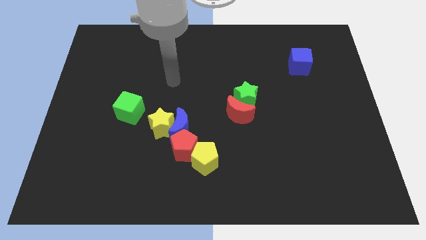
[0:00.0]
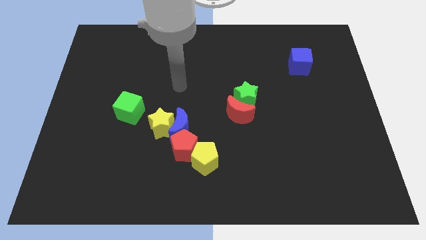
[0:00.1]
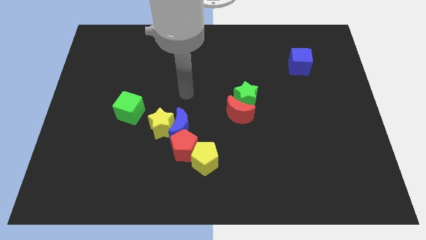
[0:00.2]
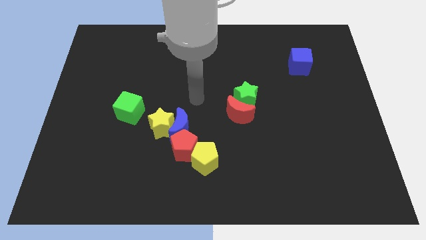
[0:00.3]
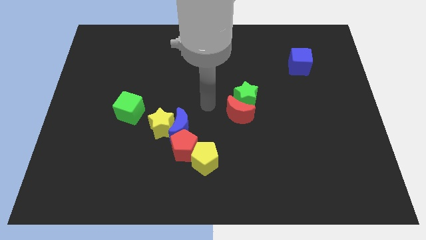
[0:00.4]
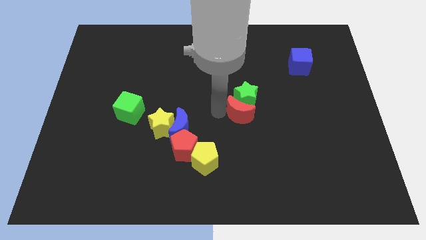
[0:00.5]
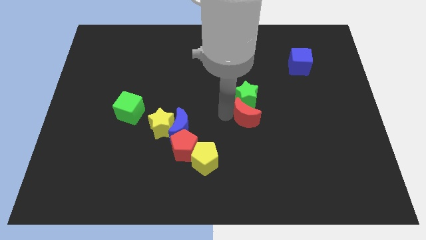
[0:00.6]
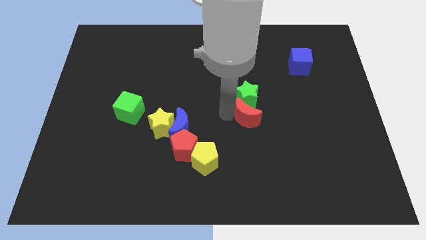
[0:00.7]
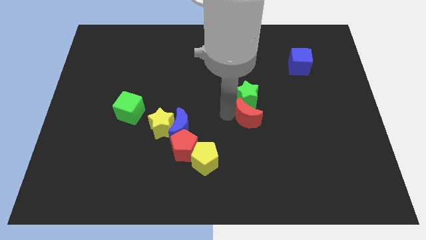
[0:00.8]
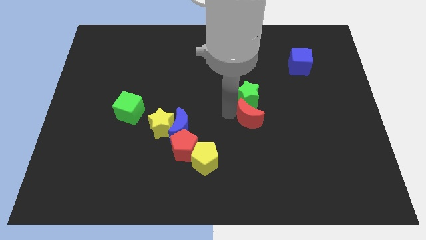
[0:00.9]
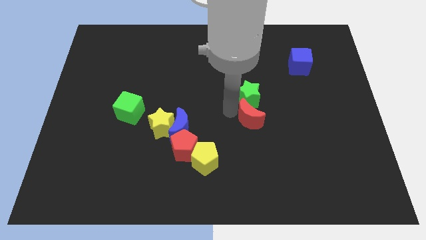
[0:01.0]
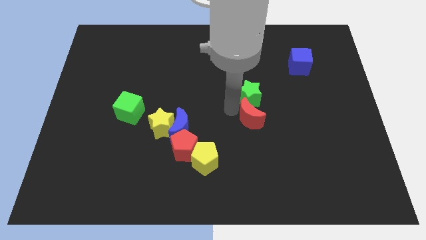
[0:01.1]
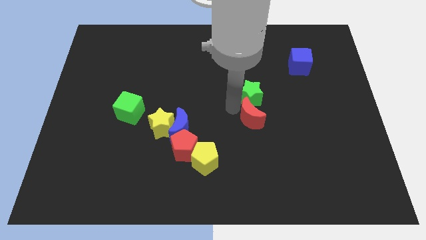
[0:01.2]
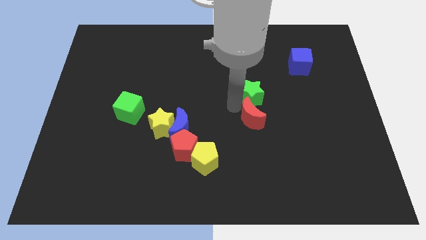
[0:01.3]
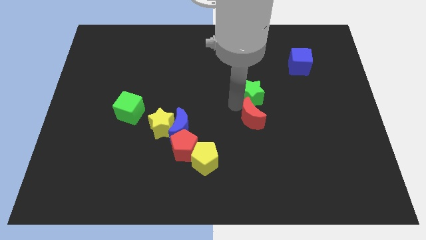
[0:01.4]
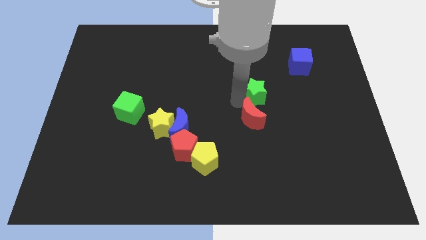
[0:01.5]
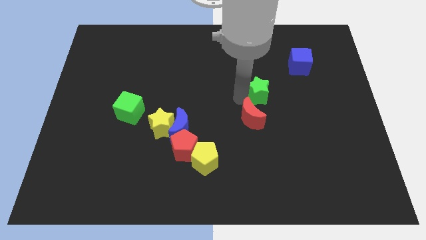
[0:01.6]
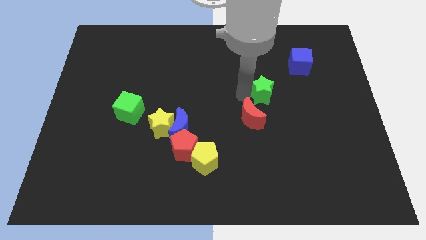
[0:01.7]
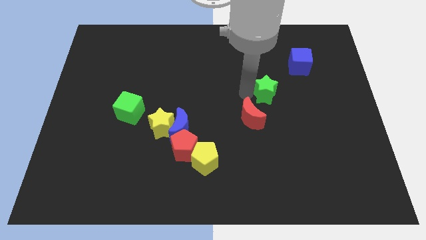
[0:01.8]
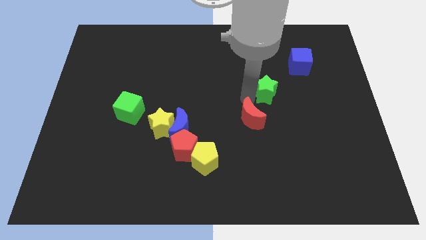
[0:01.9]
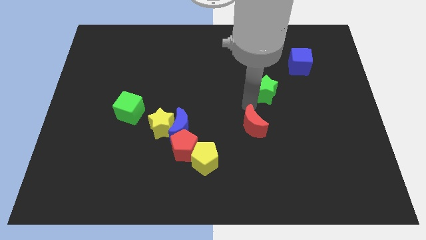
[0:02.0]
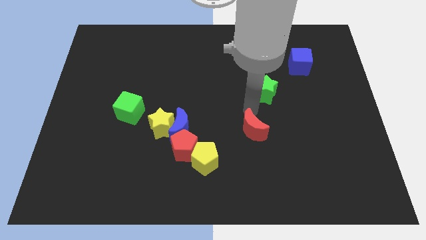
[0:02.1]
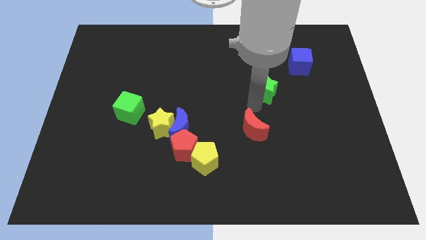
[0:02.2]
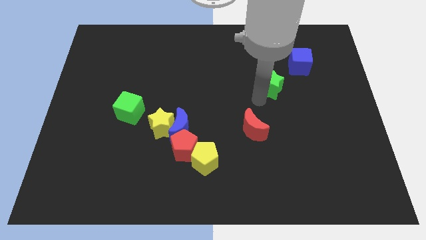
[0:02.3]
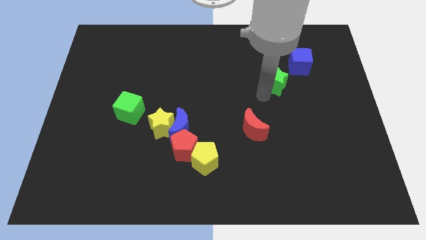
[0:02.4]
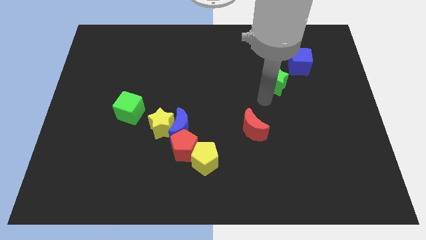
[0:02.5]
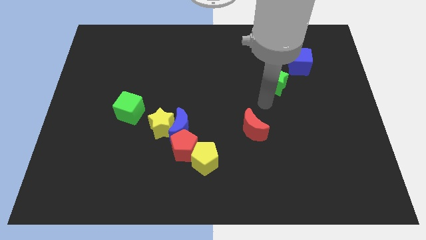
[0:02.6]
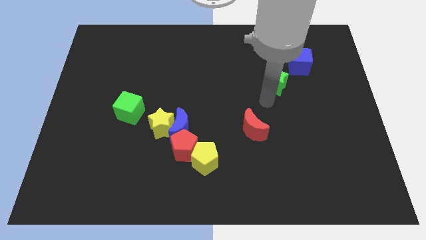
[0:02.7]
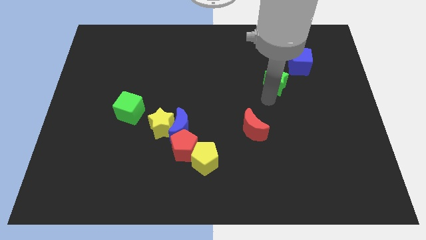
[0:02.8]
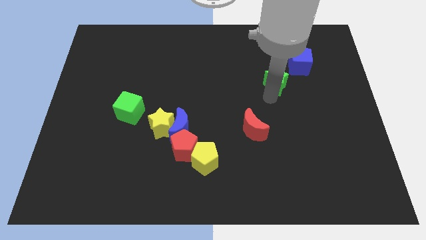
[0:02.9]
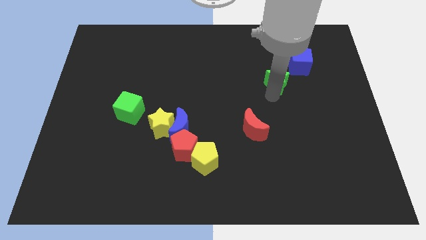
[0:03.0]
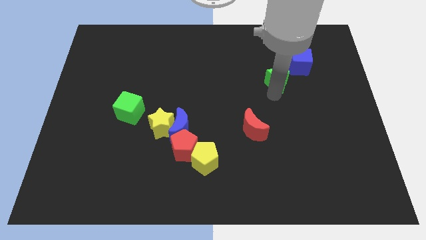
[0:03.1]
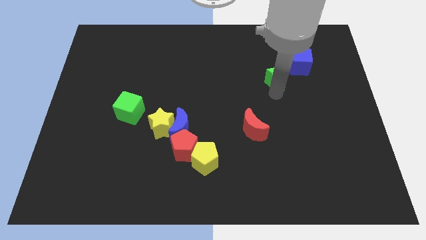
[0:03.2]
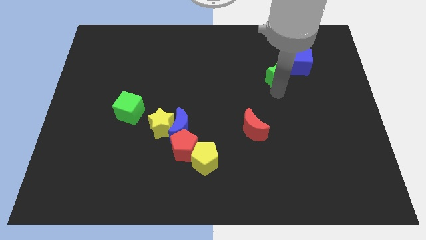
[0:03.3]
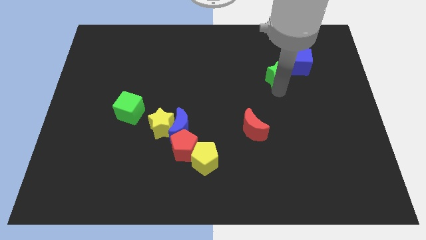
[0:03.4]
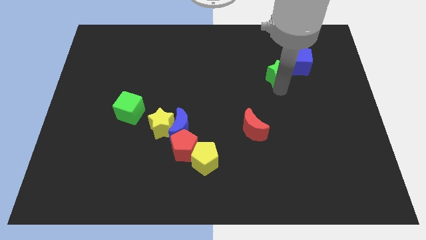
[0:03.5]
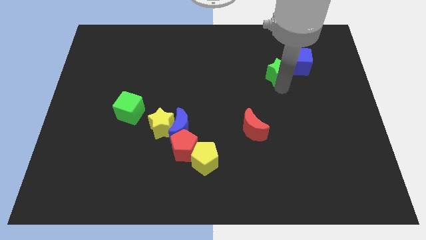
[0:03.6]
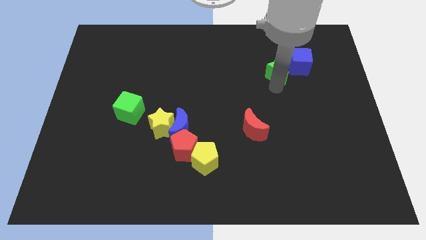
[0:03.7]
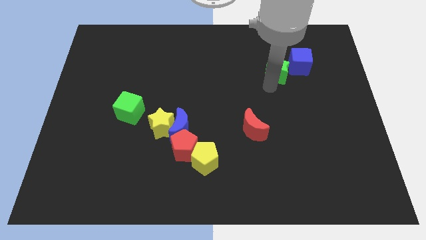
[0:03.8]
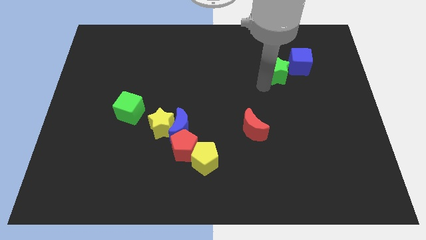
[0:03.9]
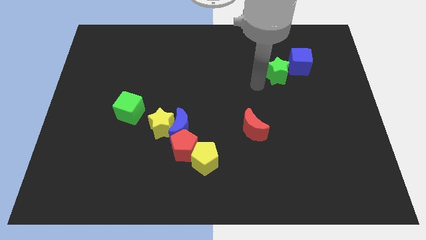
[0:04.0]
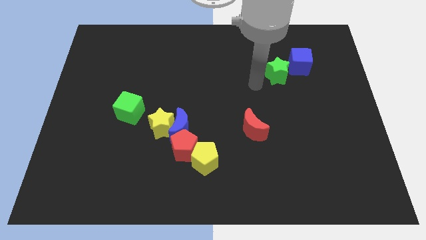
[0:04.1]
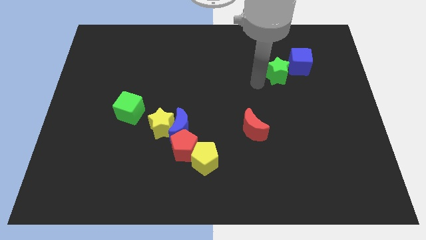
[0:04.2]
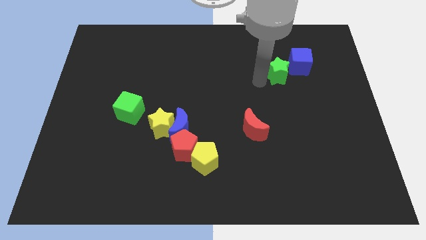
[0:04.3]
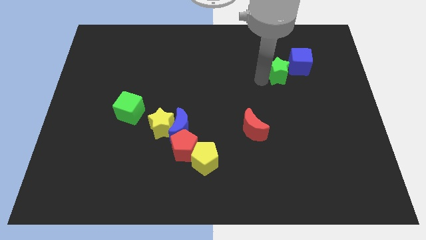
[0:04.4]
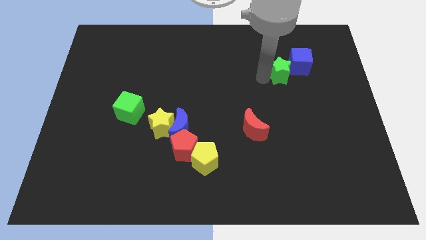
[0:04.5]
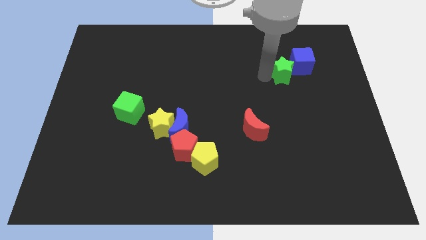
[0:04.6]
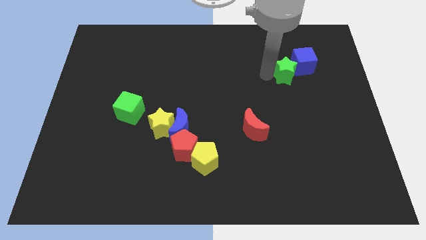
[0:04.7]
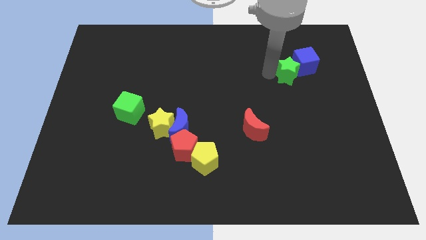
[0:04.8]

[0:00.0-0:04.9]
move the green star close to the blue cube

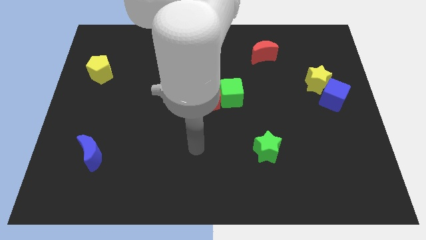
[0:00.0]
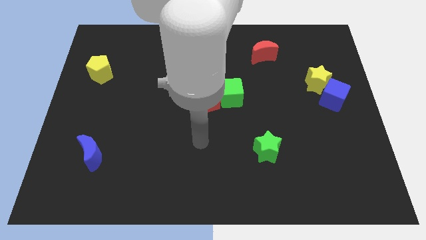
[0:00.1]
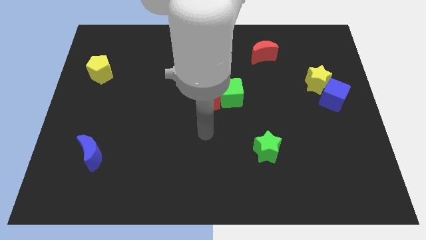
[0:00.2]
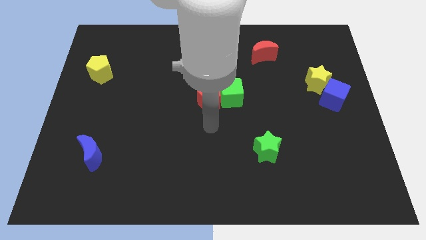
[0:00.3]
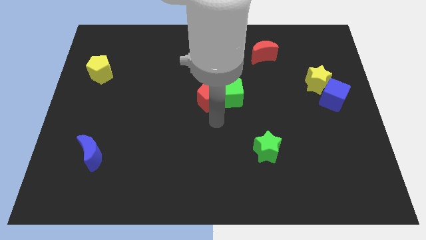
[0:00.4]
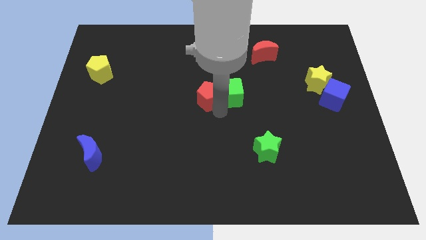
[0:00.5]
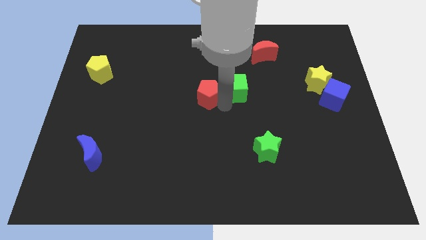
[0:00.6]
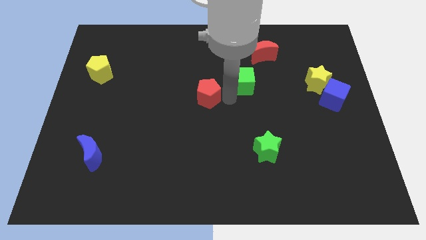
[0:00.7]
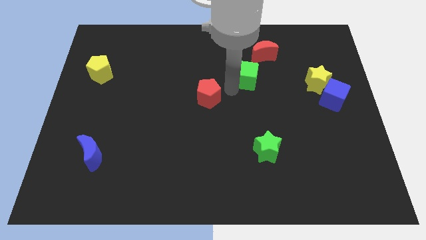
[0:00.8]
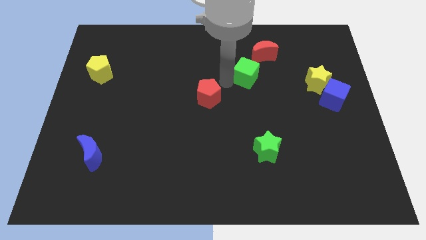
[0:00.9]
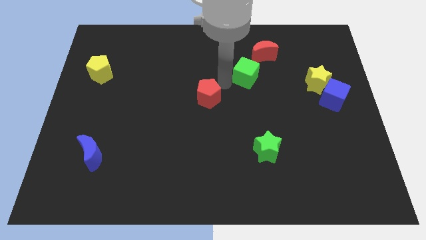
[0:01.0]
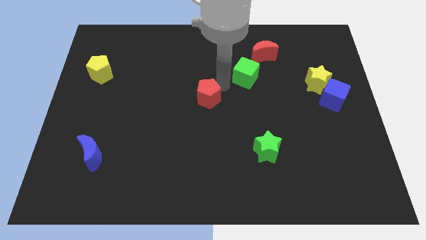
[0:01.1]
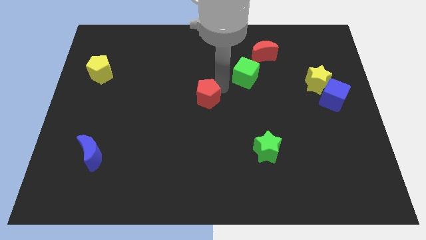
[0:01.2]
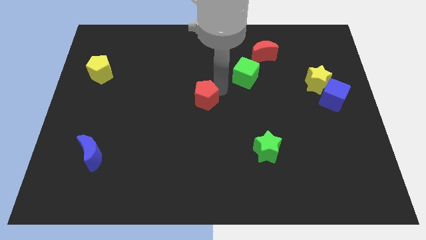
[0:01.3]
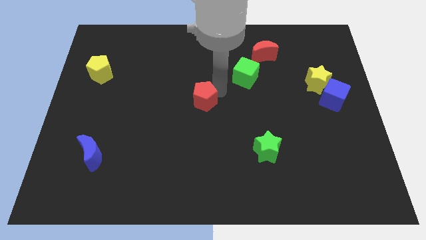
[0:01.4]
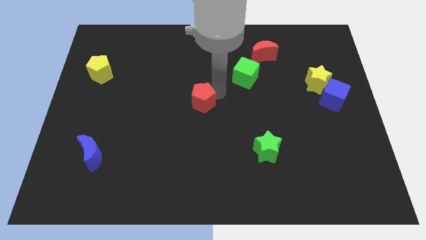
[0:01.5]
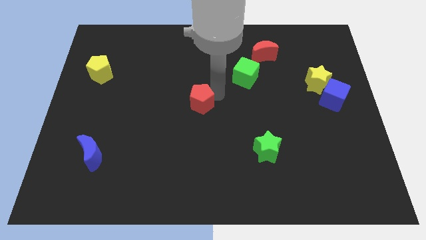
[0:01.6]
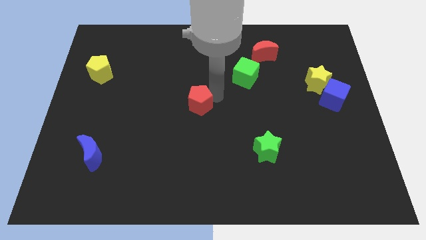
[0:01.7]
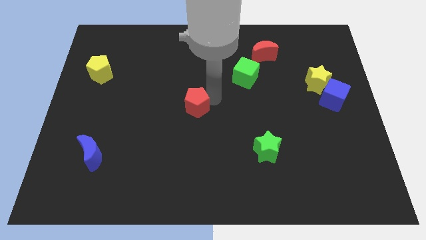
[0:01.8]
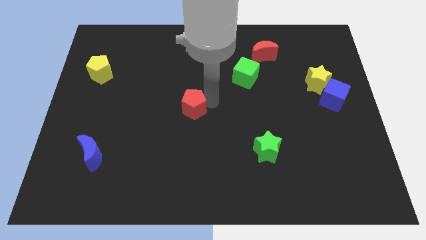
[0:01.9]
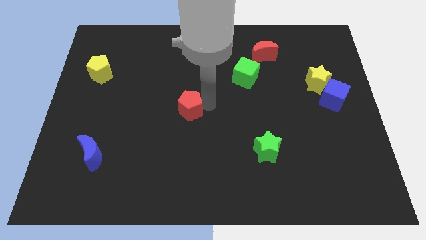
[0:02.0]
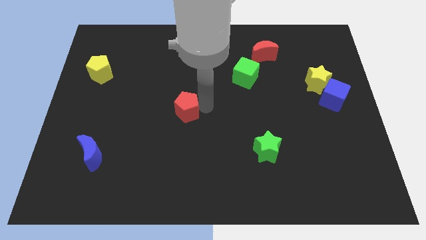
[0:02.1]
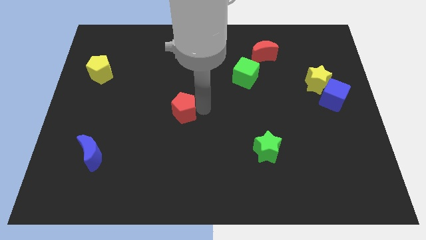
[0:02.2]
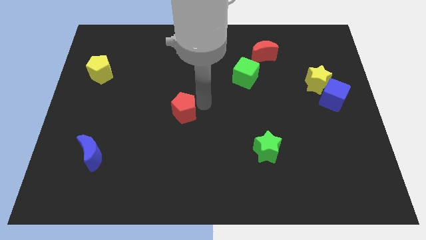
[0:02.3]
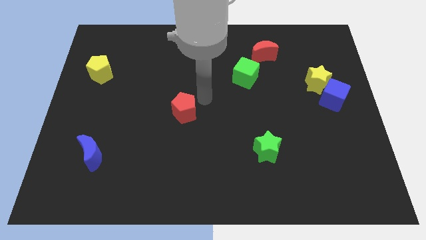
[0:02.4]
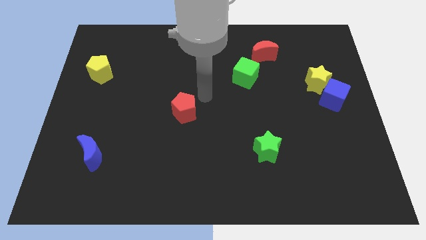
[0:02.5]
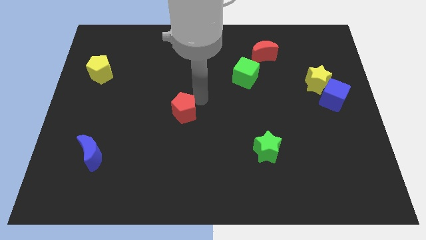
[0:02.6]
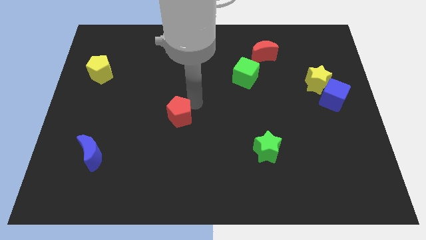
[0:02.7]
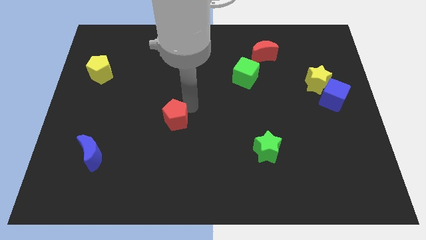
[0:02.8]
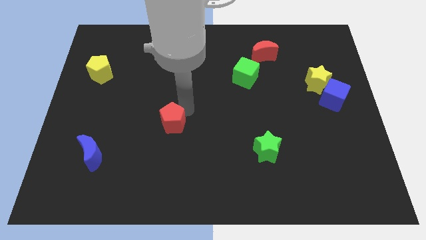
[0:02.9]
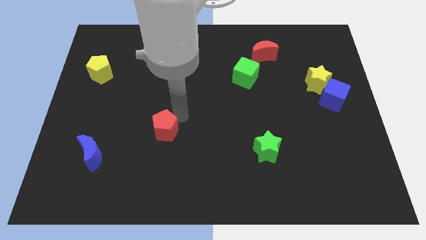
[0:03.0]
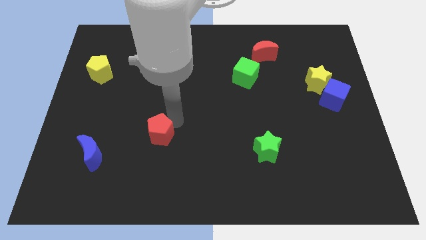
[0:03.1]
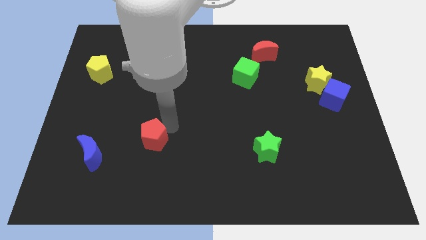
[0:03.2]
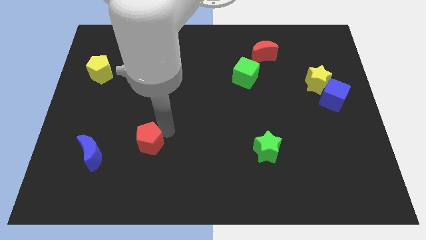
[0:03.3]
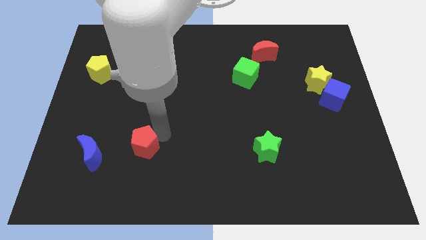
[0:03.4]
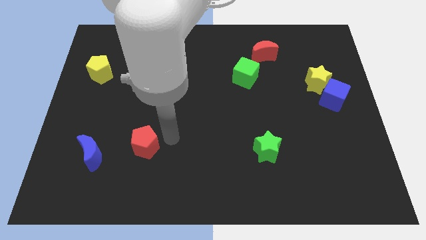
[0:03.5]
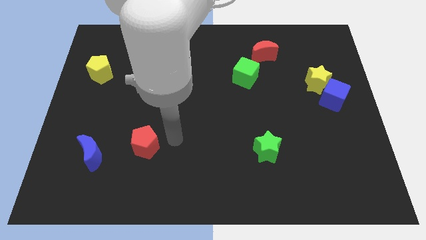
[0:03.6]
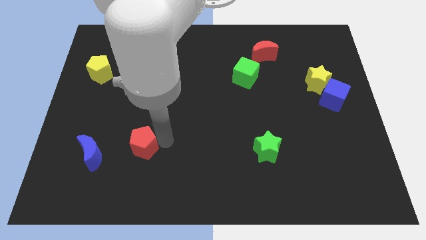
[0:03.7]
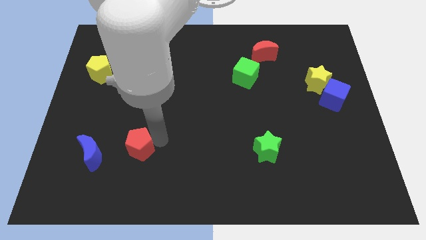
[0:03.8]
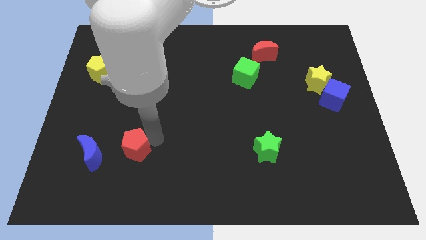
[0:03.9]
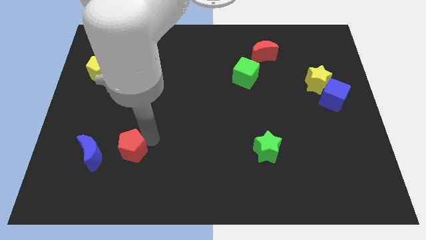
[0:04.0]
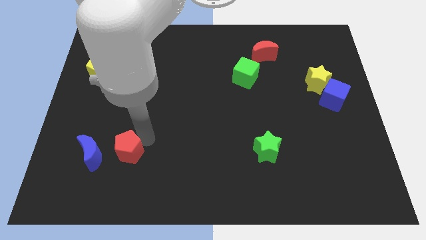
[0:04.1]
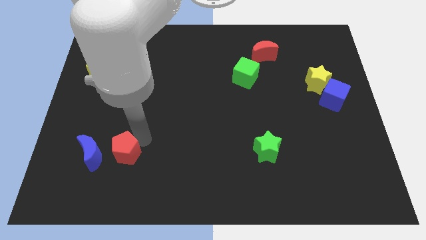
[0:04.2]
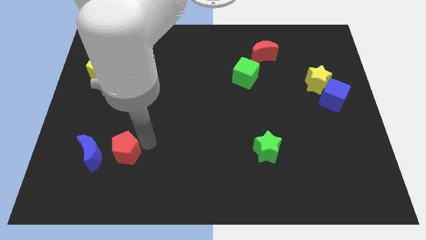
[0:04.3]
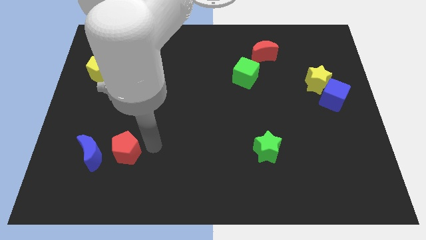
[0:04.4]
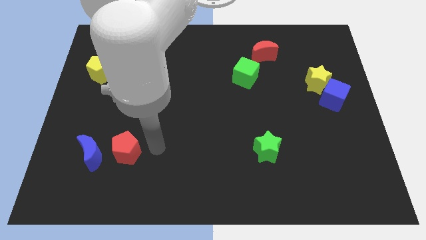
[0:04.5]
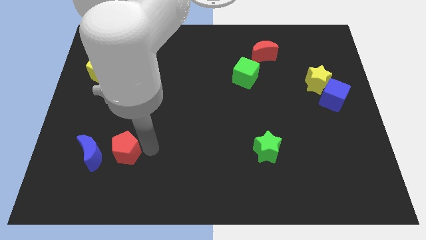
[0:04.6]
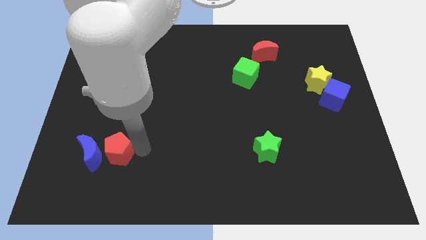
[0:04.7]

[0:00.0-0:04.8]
slide the red pentagon close to the blue moon
